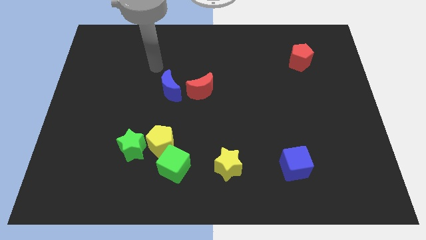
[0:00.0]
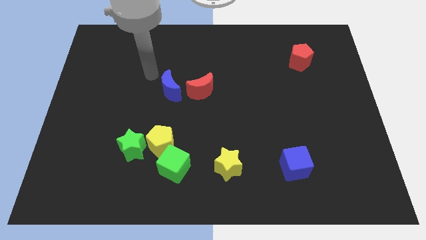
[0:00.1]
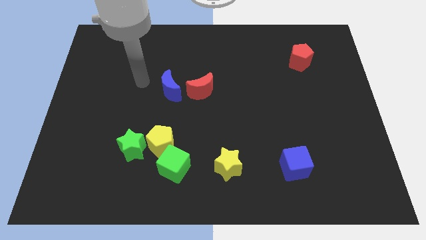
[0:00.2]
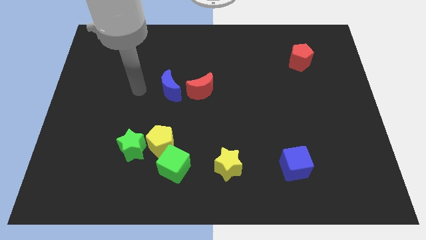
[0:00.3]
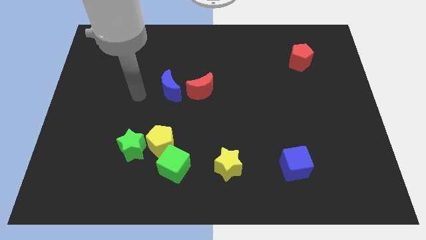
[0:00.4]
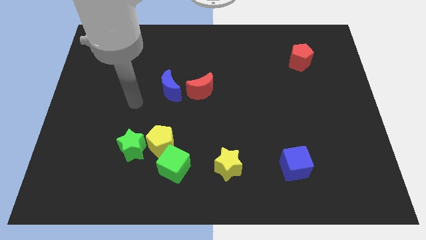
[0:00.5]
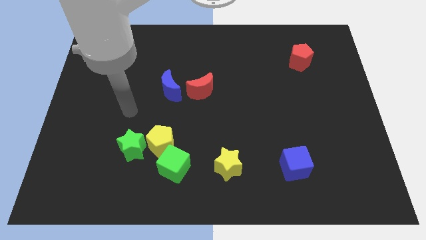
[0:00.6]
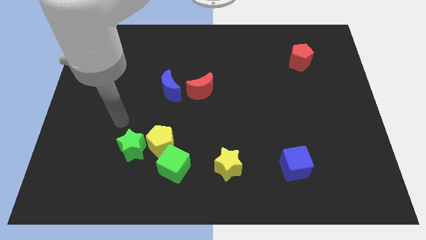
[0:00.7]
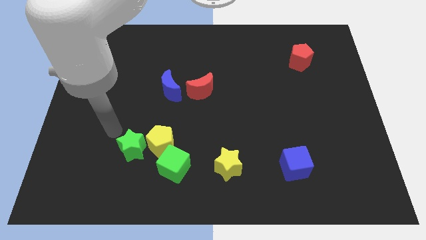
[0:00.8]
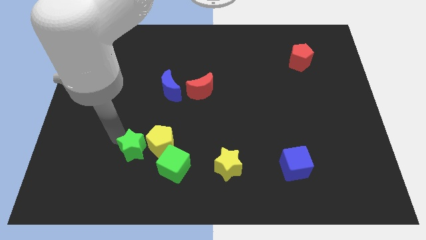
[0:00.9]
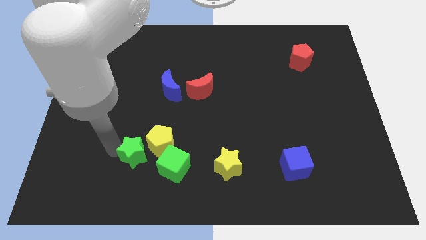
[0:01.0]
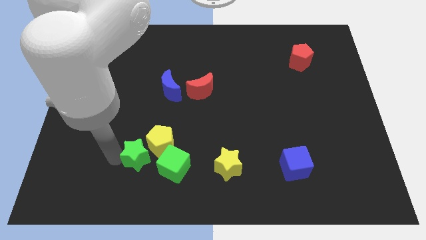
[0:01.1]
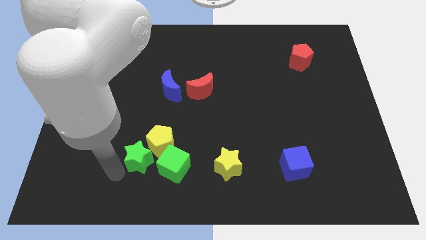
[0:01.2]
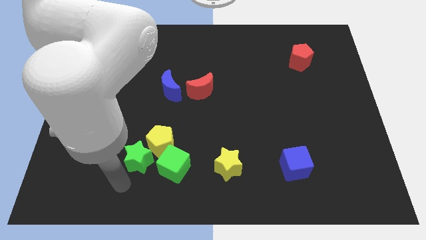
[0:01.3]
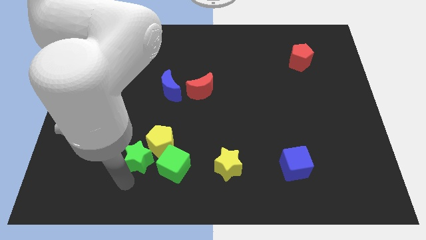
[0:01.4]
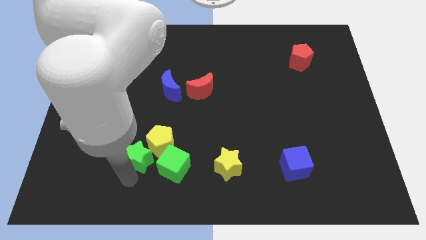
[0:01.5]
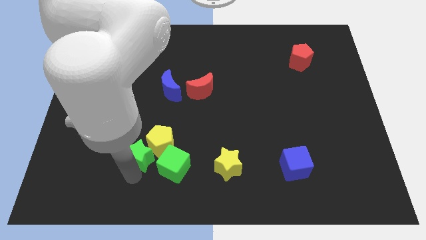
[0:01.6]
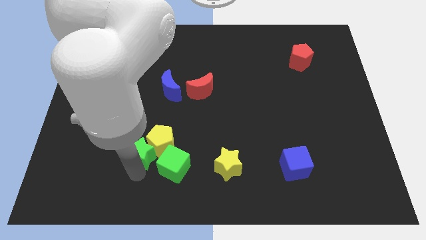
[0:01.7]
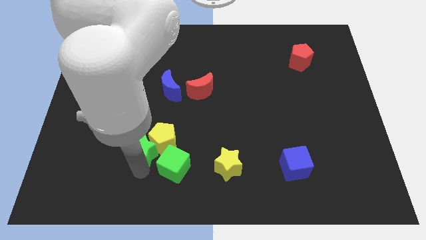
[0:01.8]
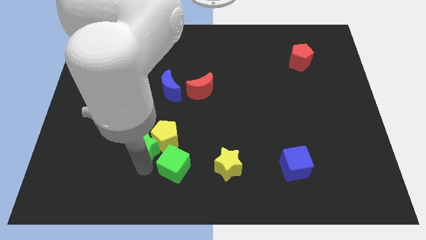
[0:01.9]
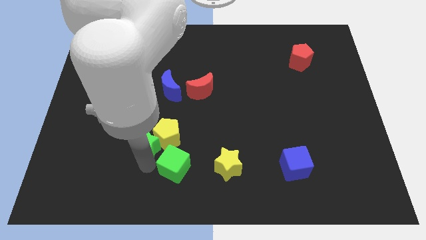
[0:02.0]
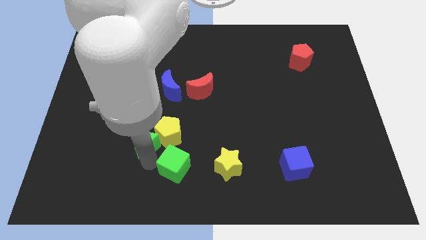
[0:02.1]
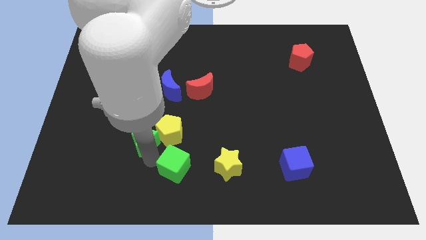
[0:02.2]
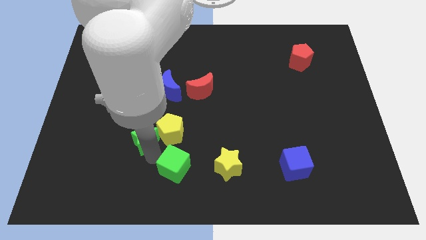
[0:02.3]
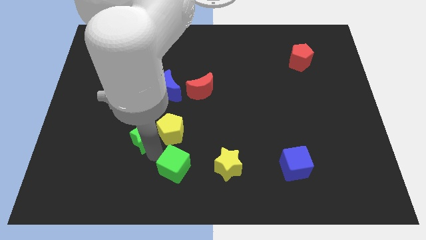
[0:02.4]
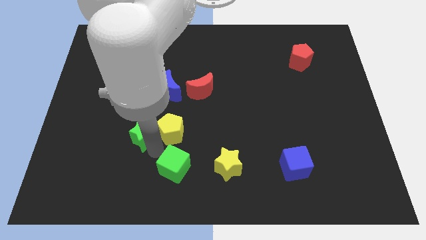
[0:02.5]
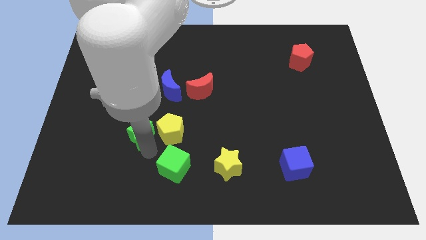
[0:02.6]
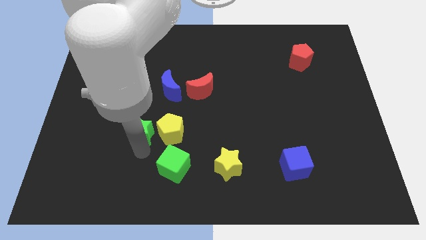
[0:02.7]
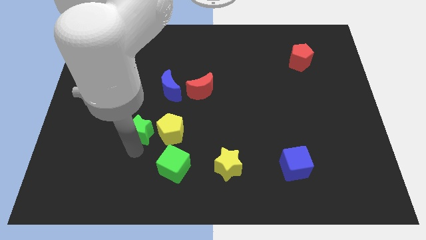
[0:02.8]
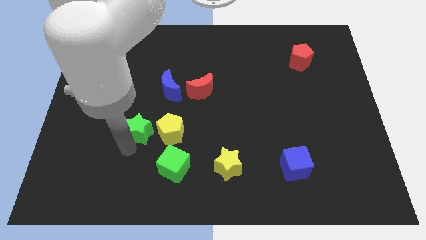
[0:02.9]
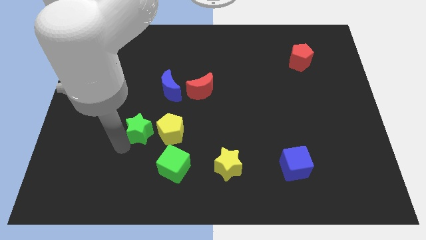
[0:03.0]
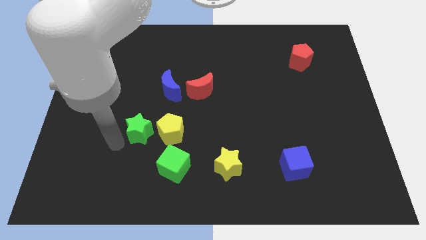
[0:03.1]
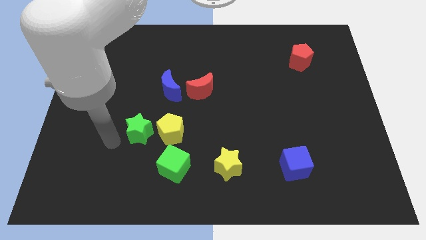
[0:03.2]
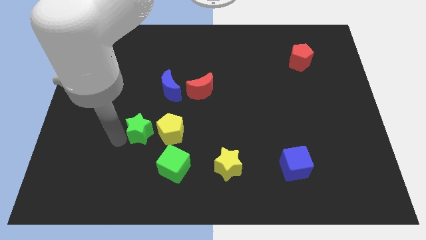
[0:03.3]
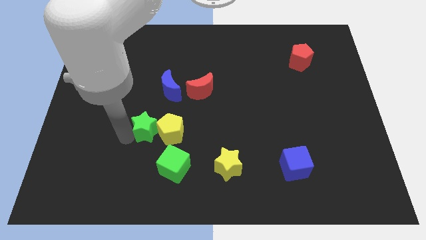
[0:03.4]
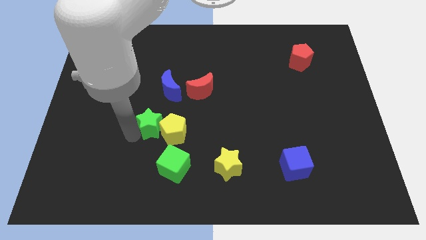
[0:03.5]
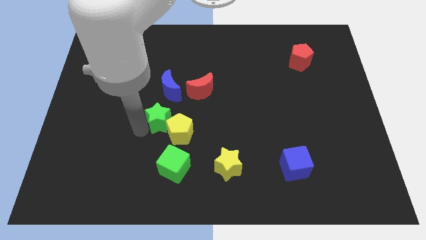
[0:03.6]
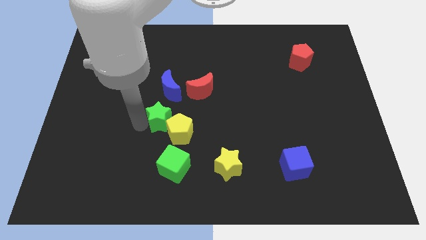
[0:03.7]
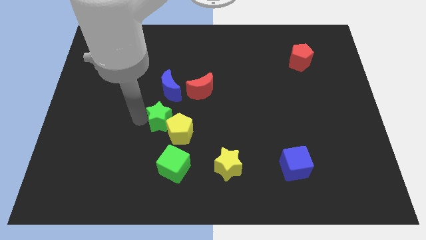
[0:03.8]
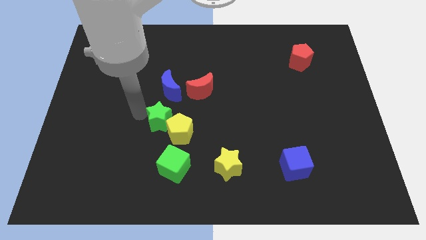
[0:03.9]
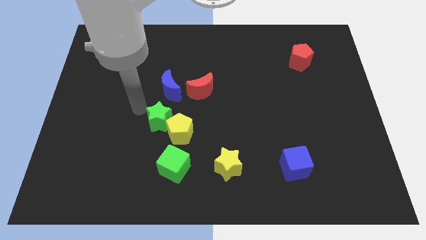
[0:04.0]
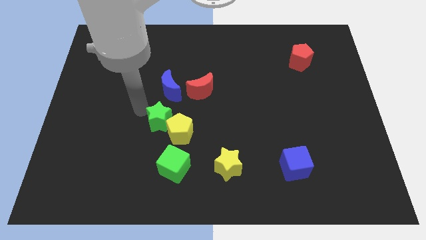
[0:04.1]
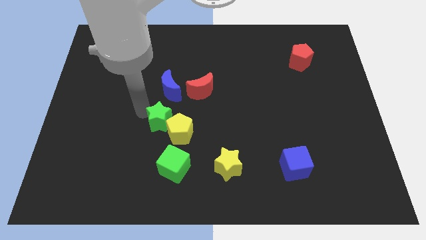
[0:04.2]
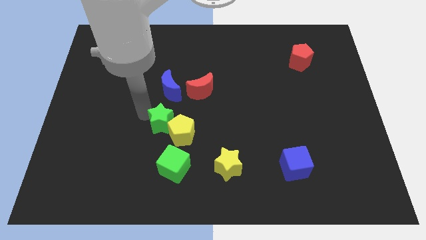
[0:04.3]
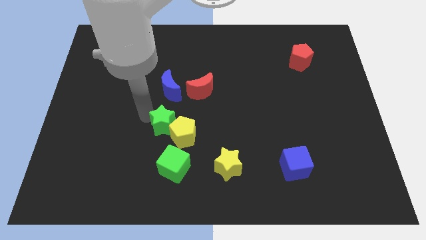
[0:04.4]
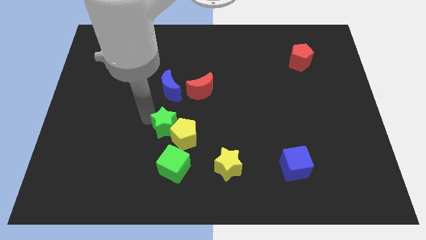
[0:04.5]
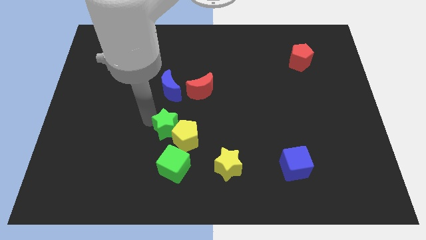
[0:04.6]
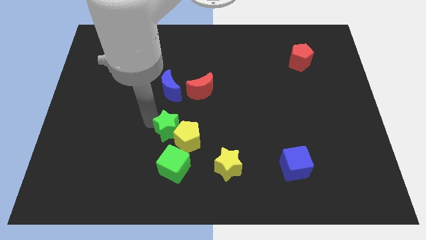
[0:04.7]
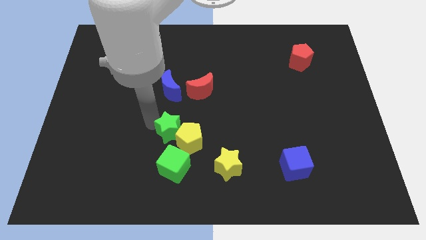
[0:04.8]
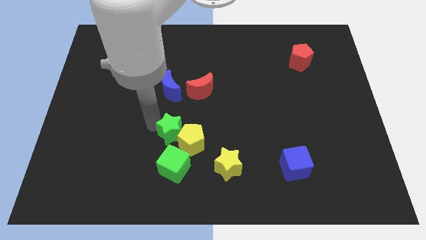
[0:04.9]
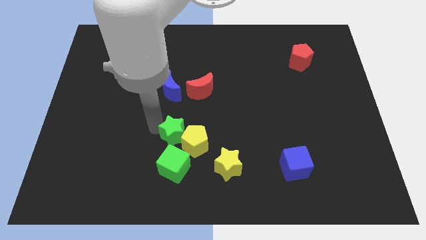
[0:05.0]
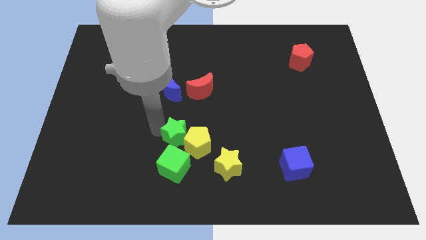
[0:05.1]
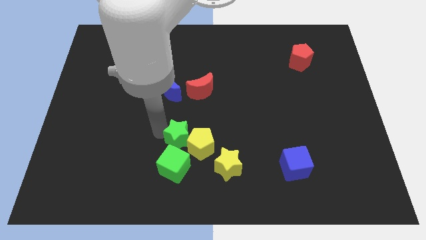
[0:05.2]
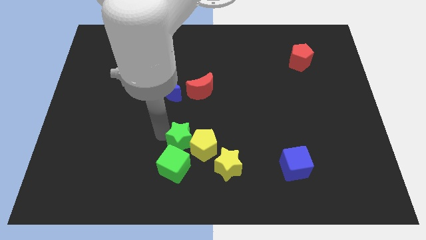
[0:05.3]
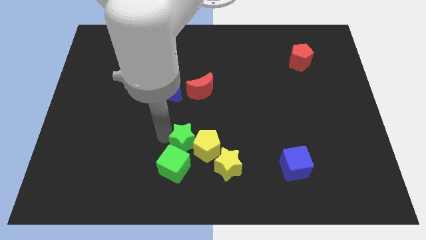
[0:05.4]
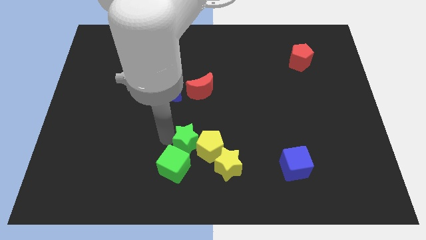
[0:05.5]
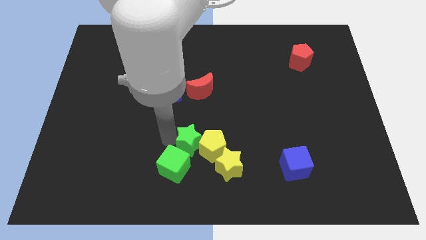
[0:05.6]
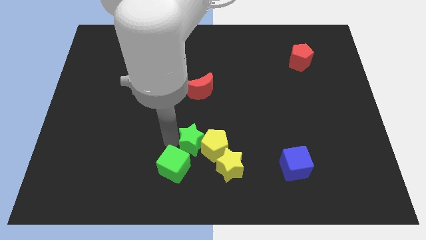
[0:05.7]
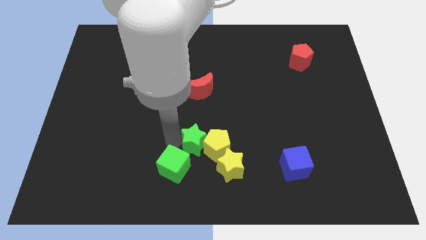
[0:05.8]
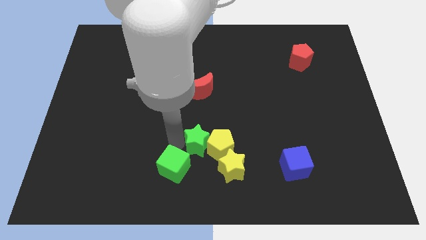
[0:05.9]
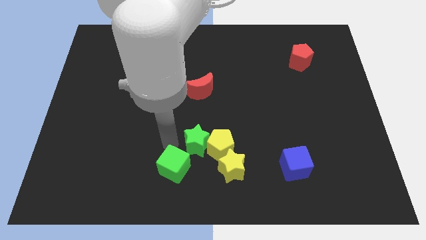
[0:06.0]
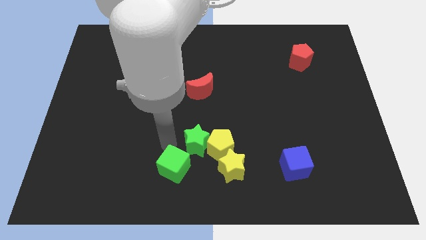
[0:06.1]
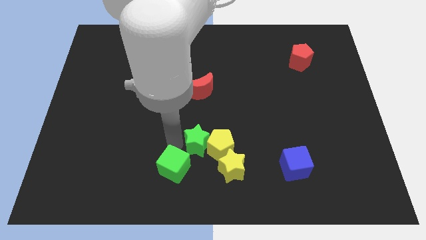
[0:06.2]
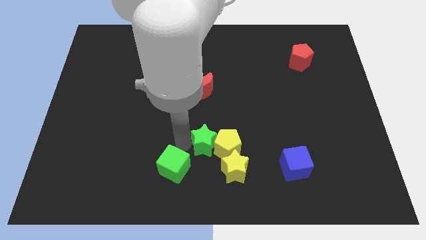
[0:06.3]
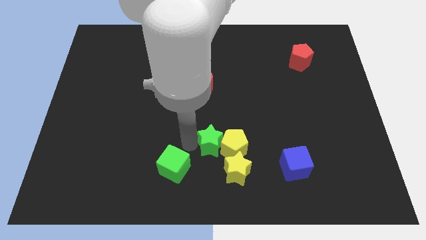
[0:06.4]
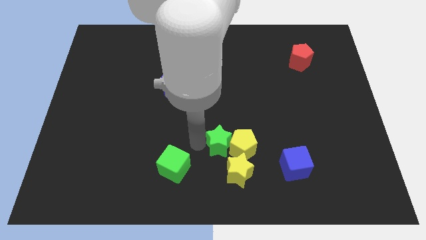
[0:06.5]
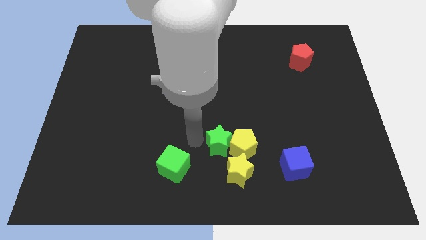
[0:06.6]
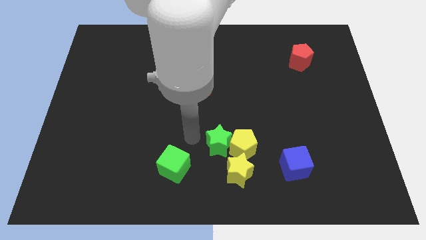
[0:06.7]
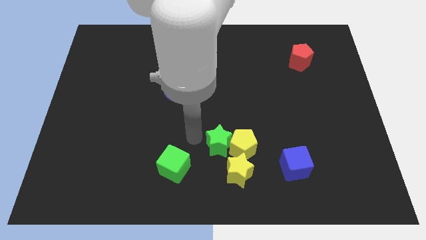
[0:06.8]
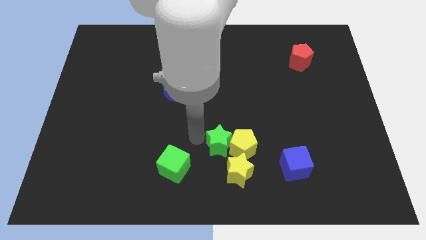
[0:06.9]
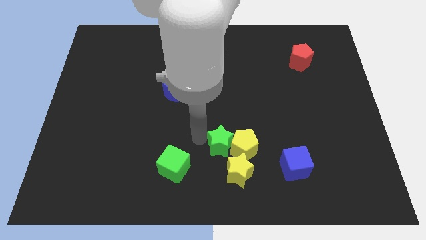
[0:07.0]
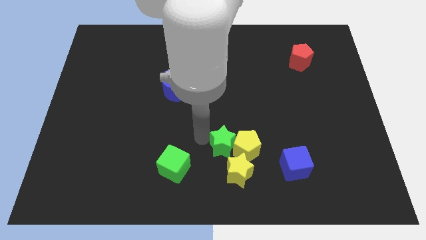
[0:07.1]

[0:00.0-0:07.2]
move the green star right

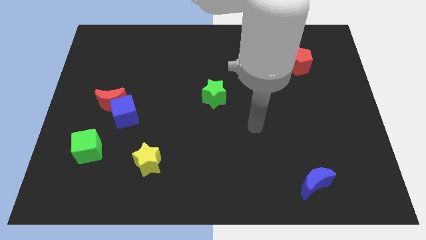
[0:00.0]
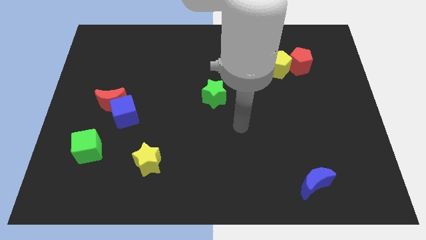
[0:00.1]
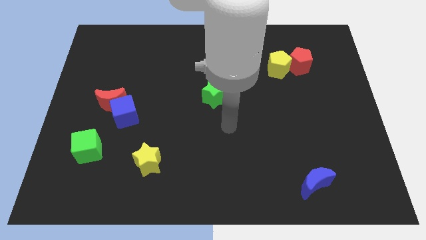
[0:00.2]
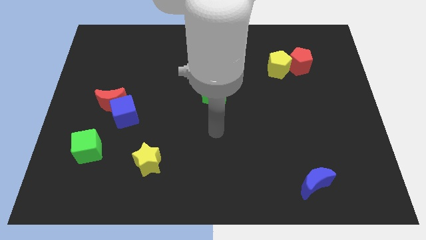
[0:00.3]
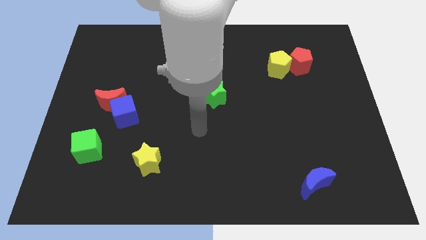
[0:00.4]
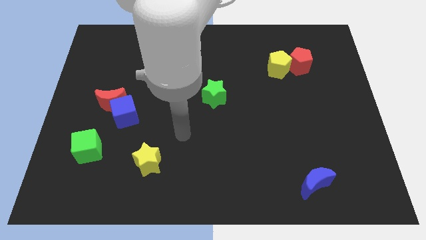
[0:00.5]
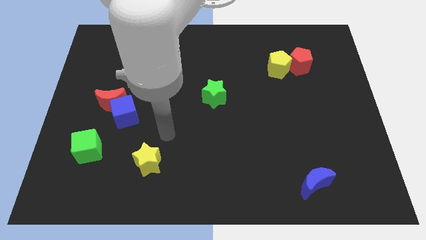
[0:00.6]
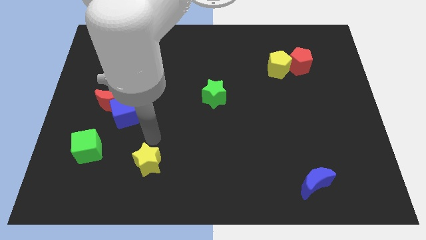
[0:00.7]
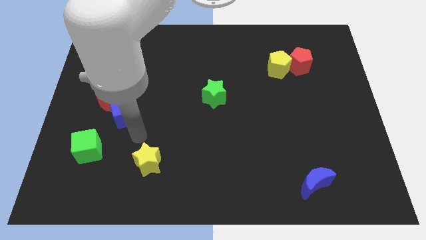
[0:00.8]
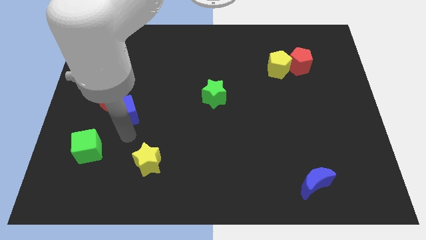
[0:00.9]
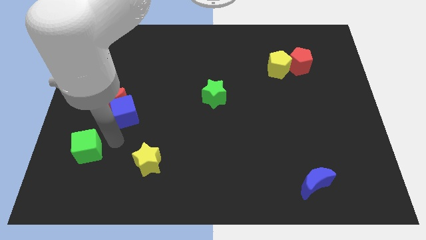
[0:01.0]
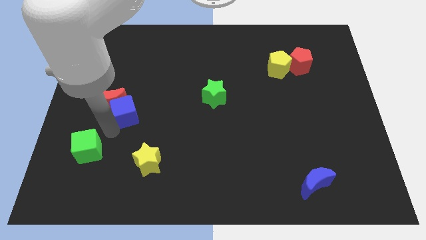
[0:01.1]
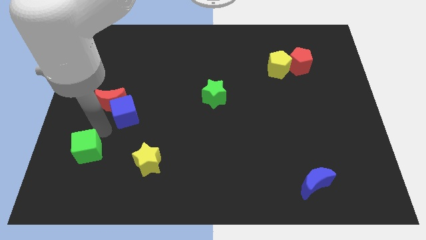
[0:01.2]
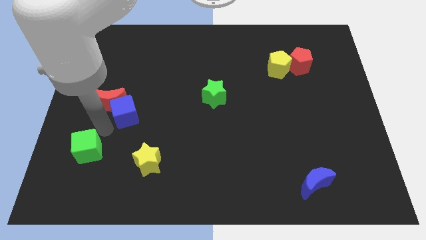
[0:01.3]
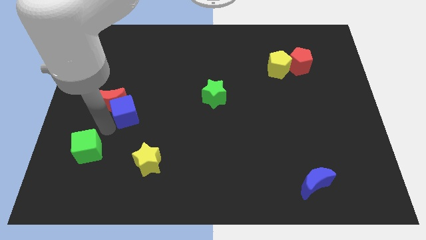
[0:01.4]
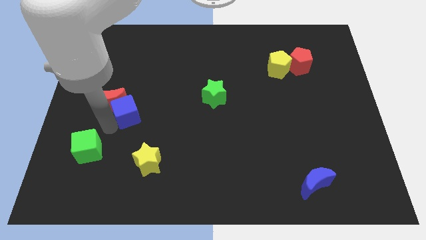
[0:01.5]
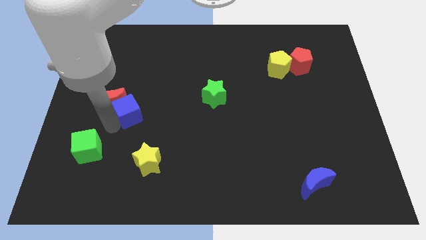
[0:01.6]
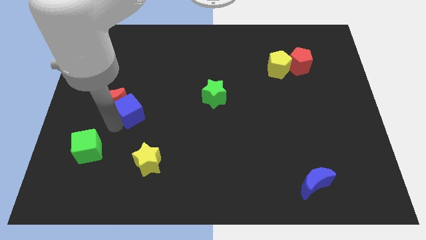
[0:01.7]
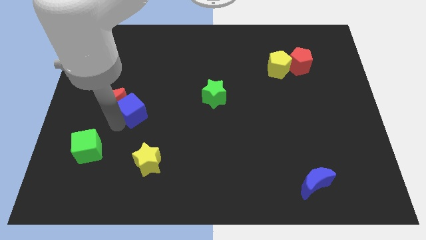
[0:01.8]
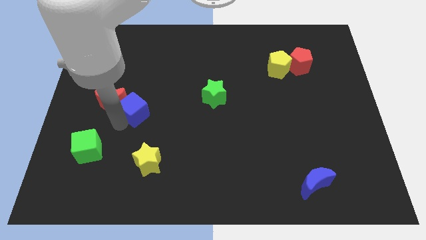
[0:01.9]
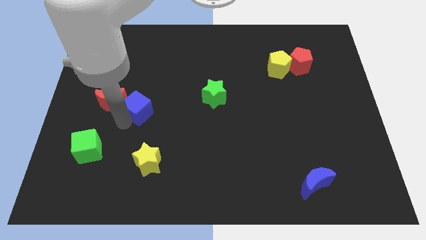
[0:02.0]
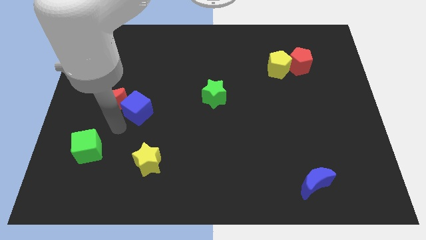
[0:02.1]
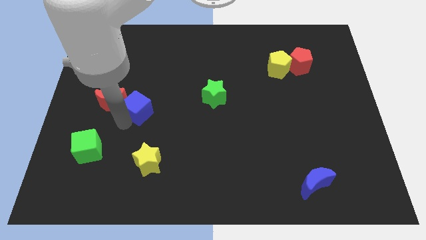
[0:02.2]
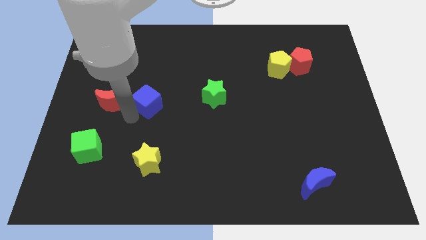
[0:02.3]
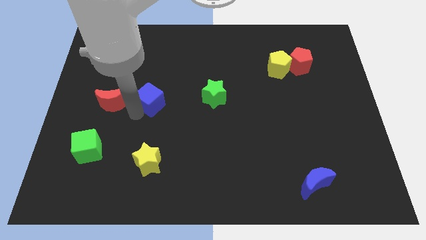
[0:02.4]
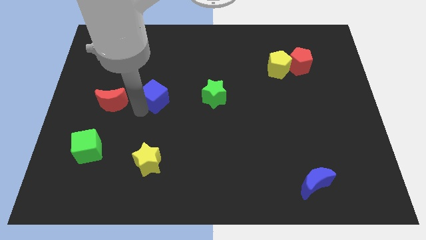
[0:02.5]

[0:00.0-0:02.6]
push the blue cube somewhat upwards and to the right
